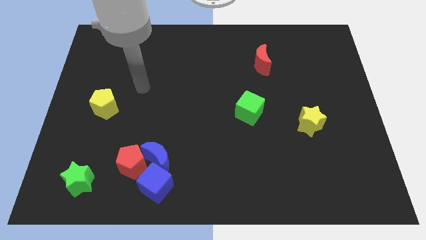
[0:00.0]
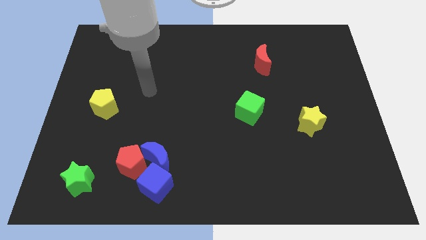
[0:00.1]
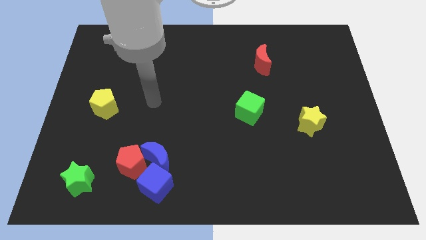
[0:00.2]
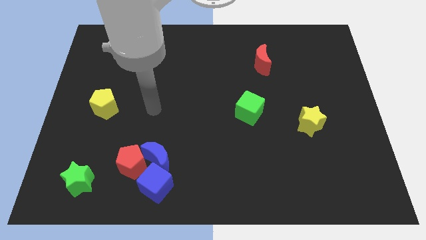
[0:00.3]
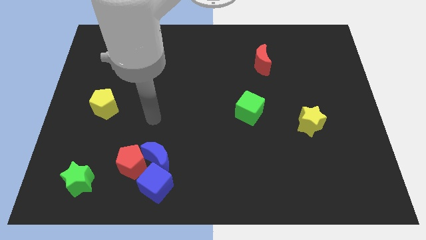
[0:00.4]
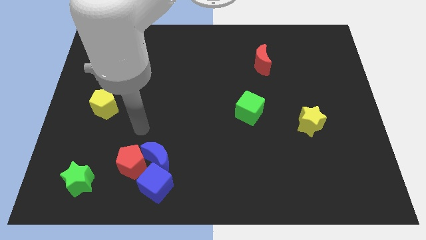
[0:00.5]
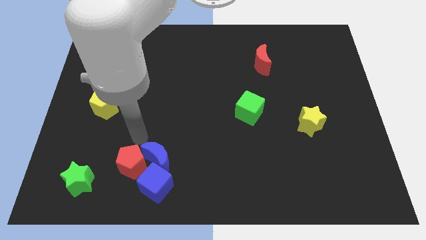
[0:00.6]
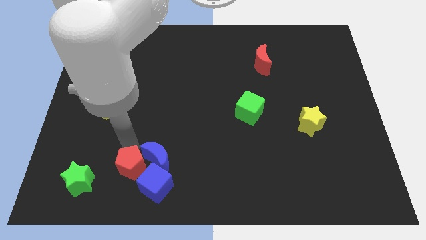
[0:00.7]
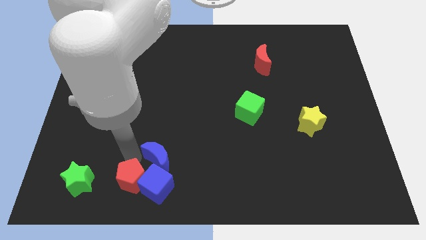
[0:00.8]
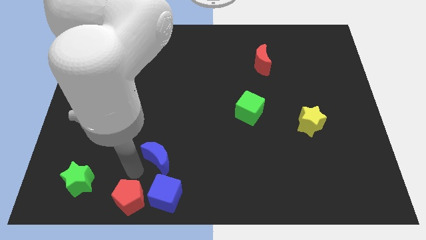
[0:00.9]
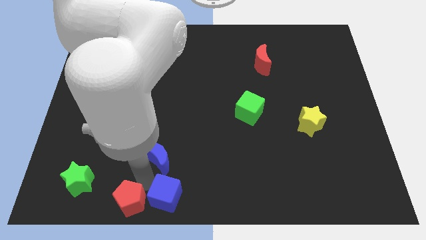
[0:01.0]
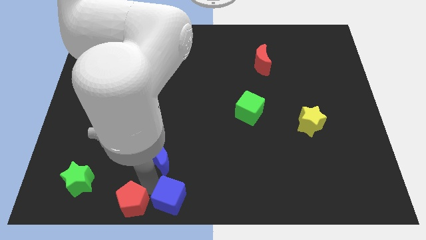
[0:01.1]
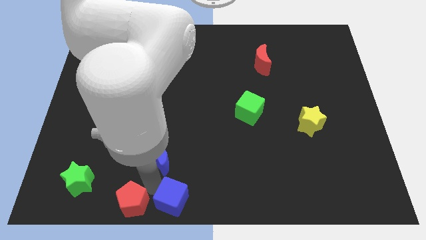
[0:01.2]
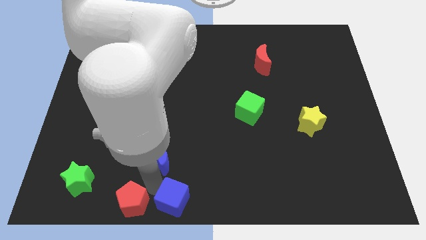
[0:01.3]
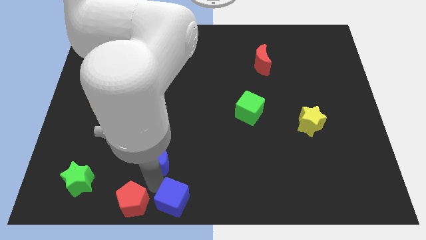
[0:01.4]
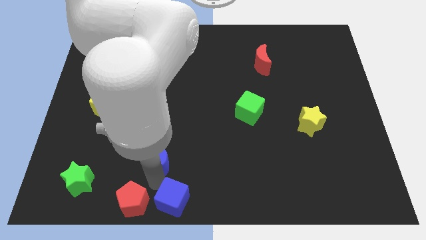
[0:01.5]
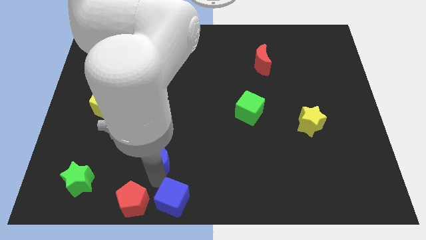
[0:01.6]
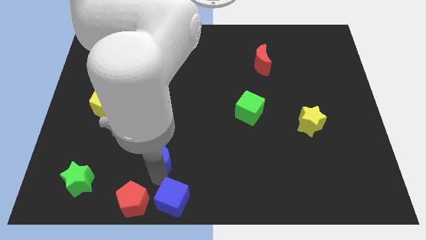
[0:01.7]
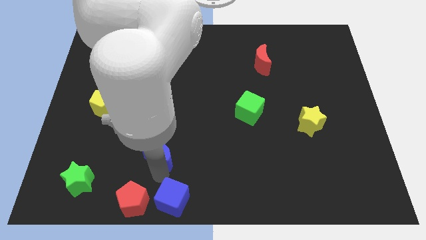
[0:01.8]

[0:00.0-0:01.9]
separate the blue moon from the red pentagon and blue cube

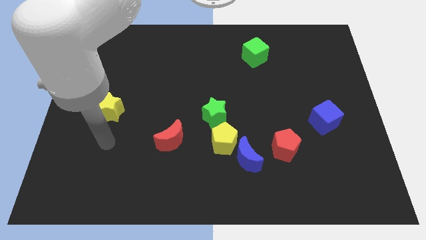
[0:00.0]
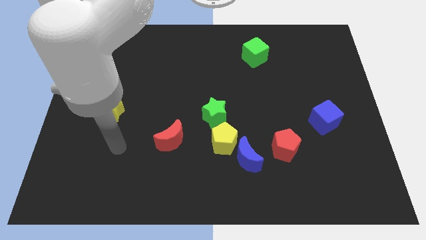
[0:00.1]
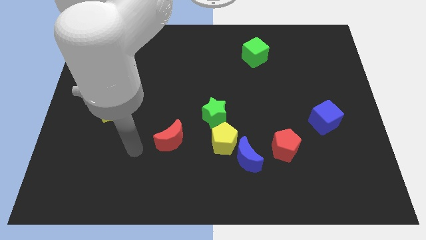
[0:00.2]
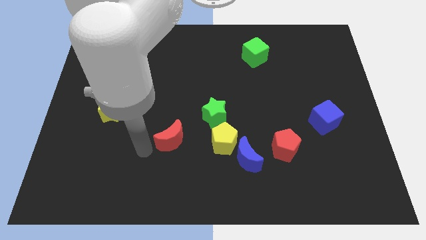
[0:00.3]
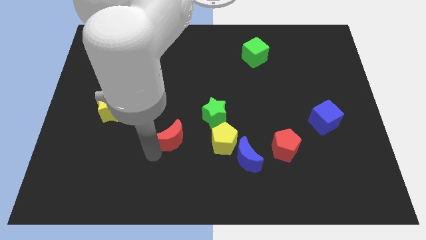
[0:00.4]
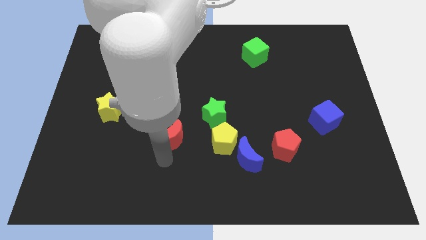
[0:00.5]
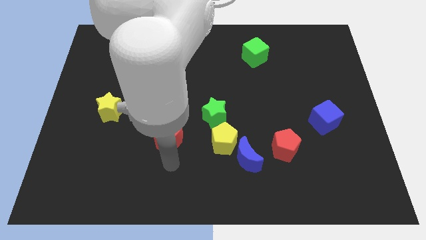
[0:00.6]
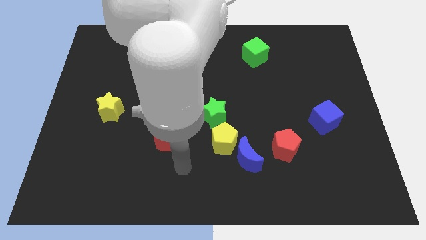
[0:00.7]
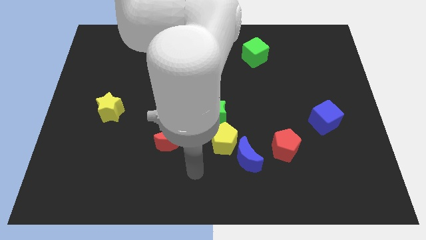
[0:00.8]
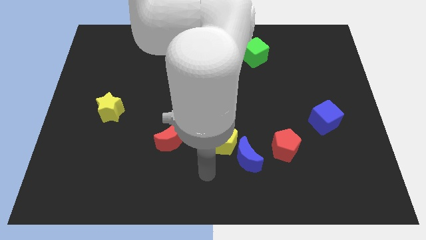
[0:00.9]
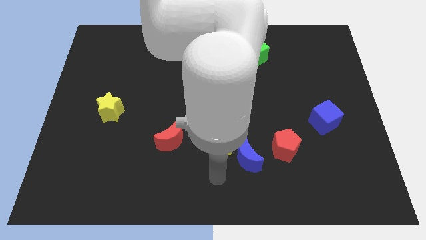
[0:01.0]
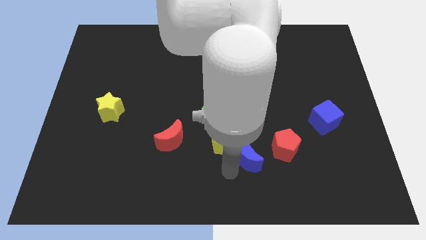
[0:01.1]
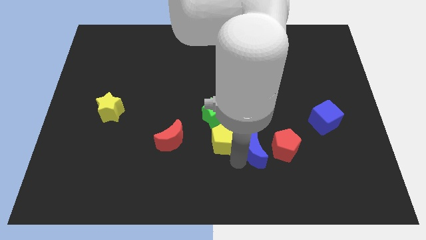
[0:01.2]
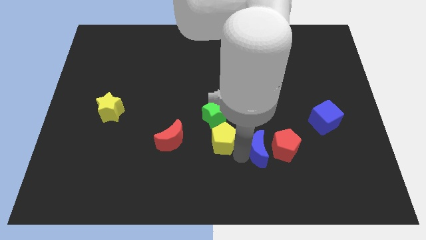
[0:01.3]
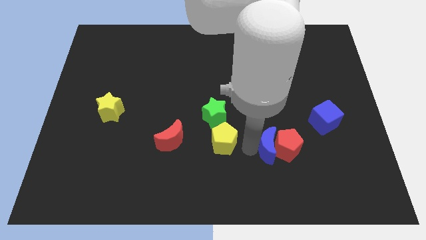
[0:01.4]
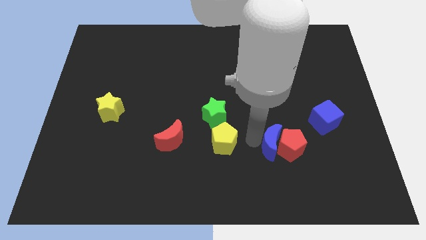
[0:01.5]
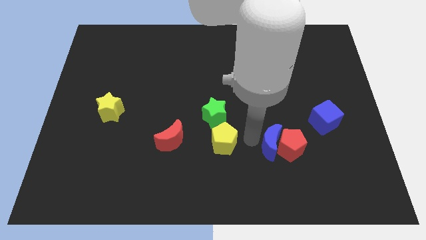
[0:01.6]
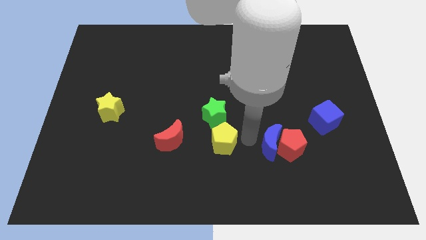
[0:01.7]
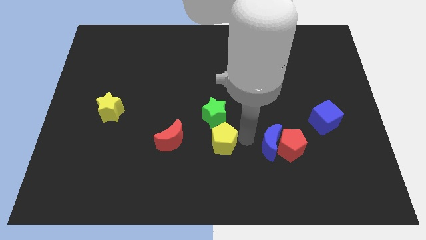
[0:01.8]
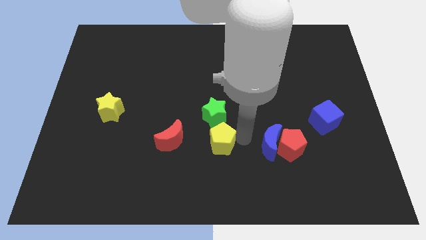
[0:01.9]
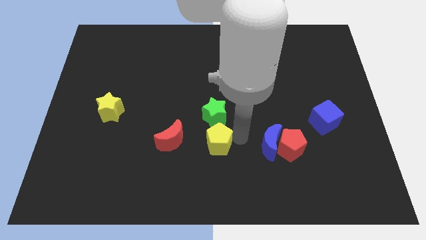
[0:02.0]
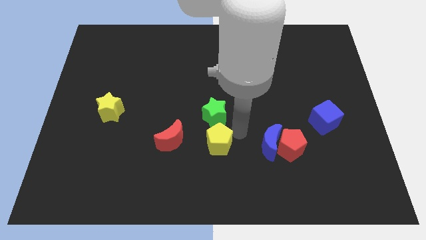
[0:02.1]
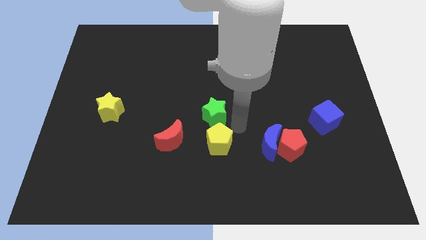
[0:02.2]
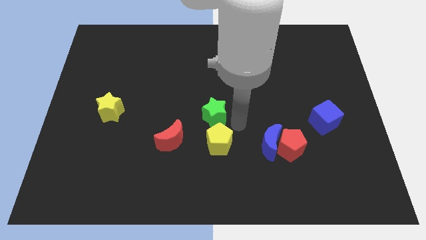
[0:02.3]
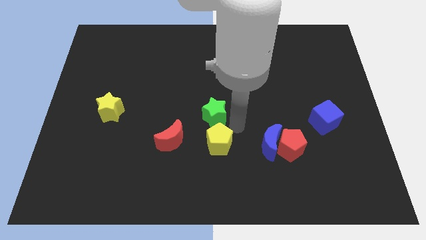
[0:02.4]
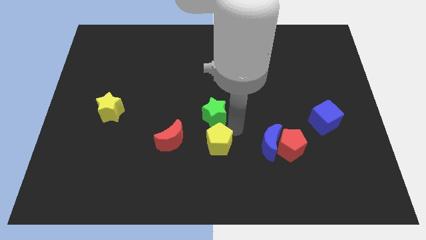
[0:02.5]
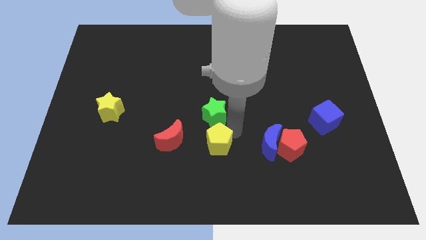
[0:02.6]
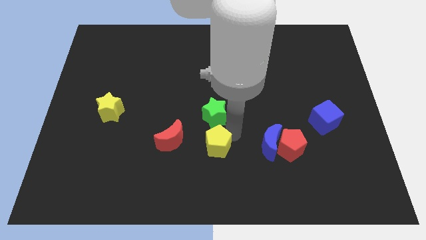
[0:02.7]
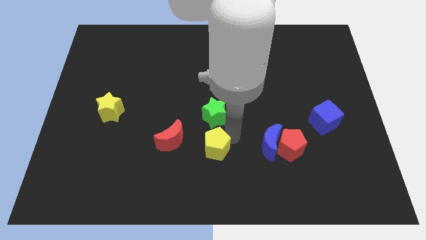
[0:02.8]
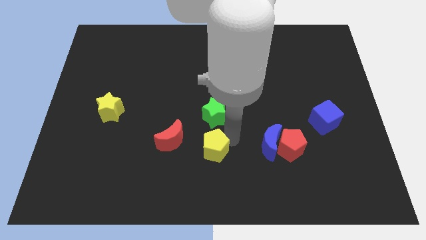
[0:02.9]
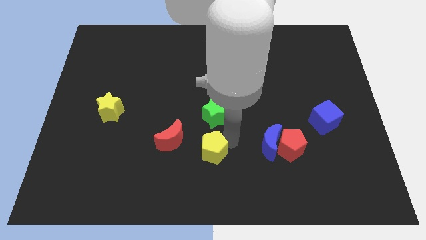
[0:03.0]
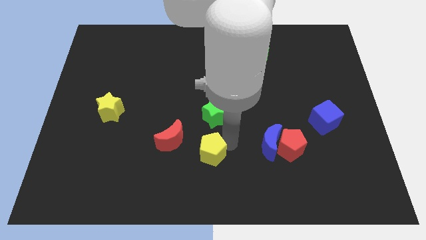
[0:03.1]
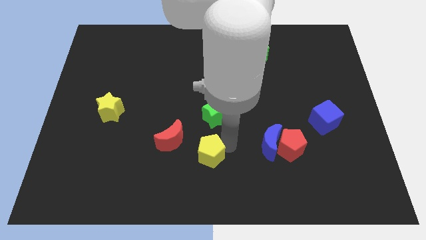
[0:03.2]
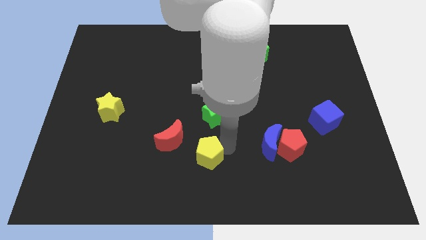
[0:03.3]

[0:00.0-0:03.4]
separate the yellow pentagon from the blue moon and green star

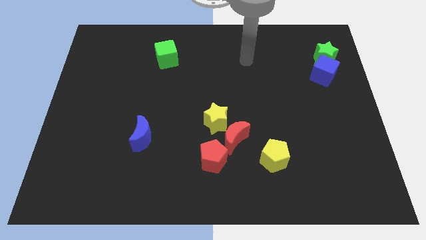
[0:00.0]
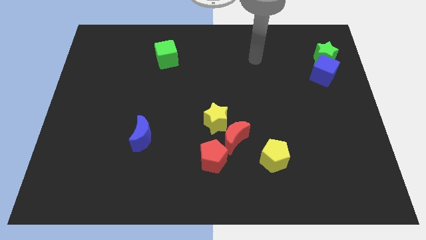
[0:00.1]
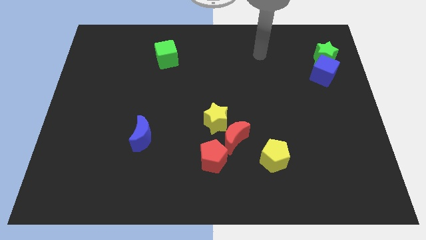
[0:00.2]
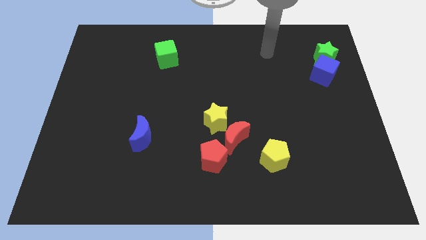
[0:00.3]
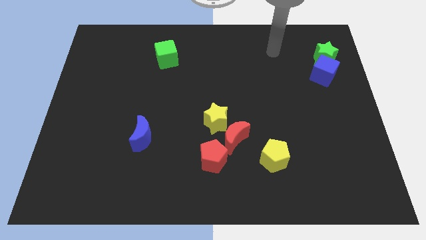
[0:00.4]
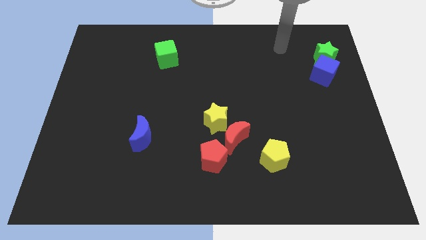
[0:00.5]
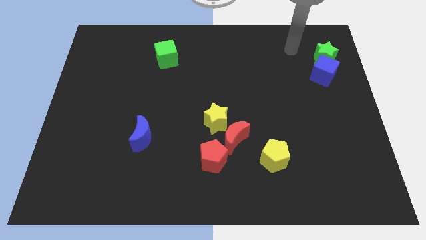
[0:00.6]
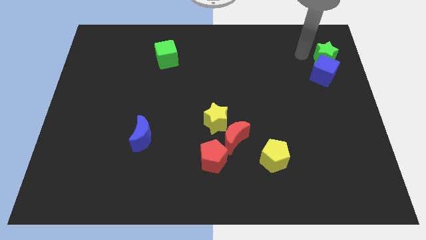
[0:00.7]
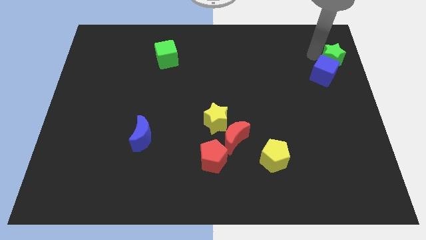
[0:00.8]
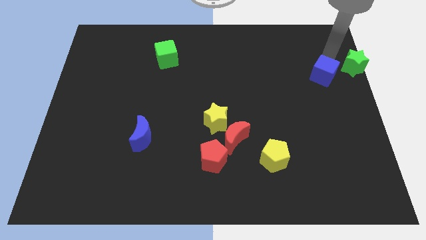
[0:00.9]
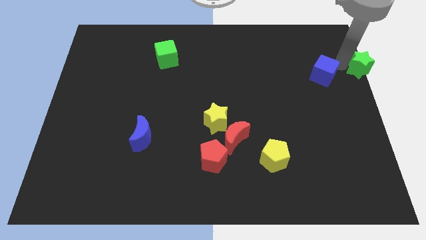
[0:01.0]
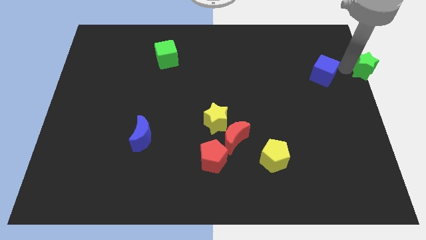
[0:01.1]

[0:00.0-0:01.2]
pull the blue cube apart from the green star

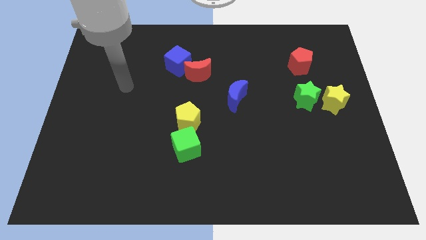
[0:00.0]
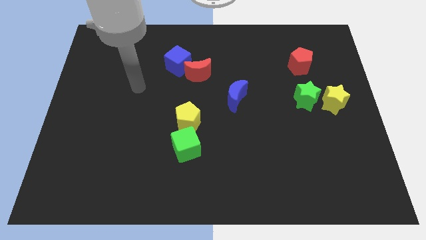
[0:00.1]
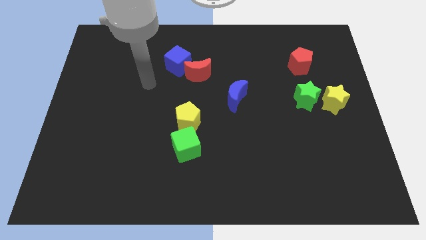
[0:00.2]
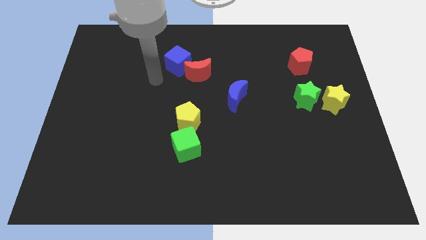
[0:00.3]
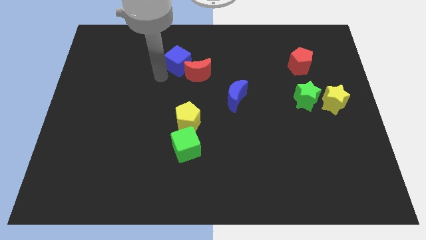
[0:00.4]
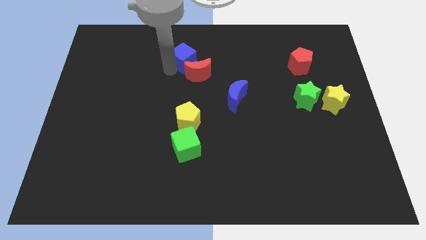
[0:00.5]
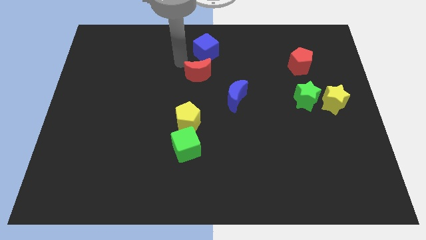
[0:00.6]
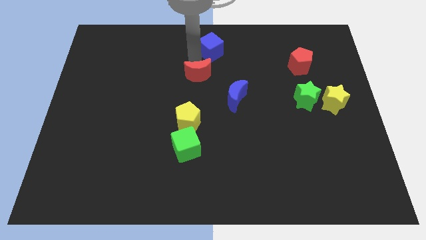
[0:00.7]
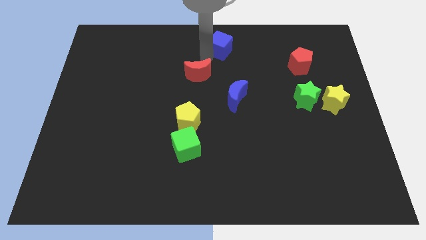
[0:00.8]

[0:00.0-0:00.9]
pull the red moon apart from the blue cube

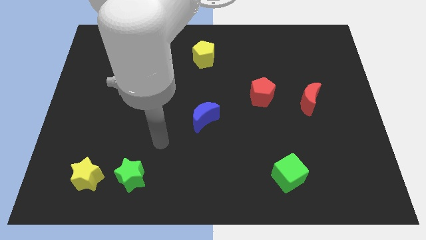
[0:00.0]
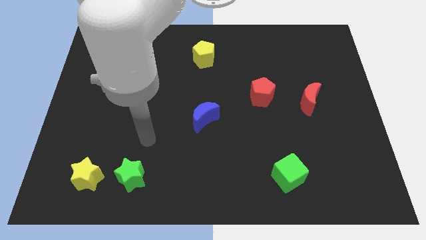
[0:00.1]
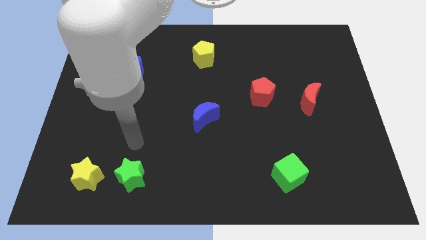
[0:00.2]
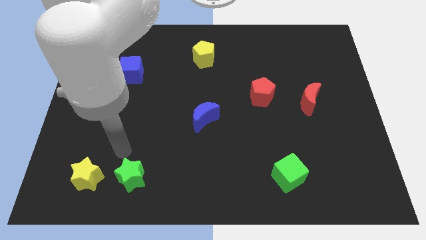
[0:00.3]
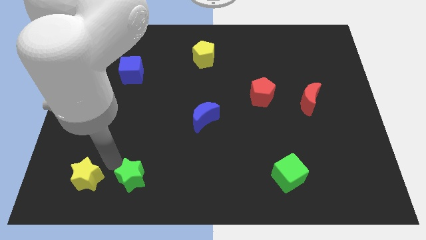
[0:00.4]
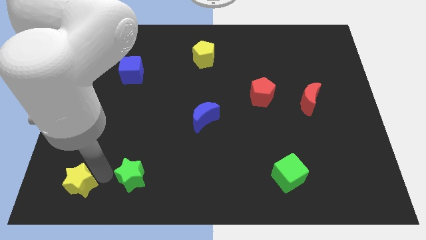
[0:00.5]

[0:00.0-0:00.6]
pull the green star apart from the yellow star

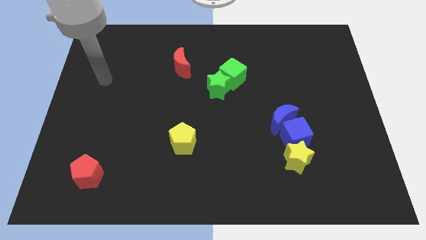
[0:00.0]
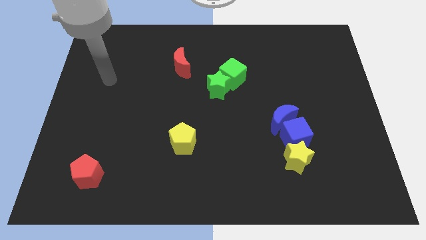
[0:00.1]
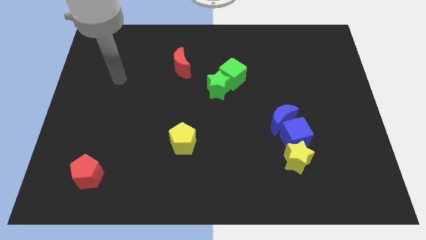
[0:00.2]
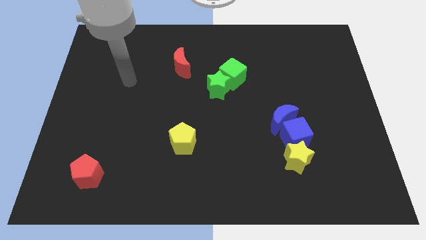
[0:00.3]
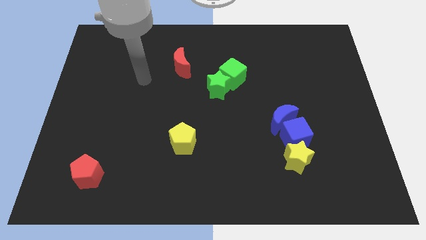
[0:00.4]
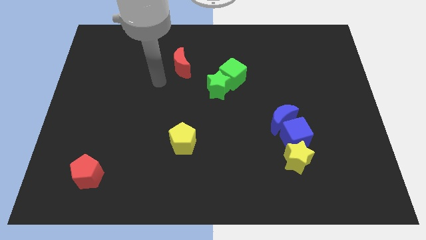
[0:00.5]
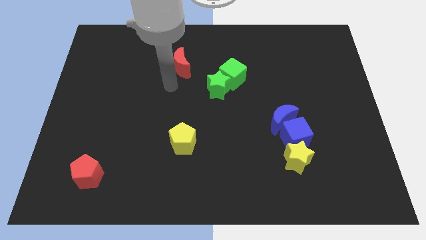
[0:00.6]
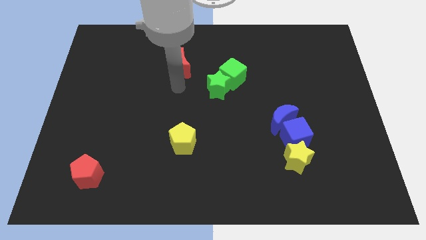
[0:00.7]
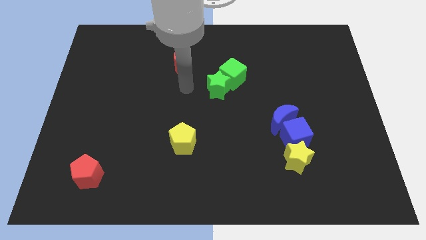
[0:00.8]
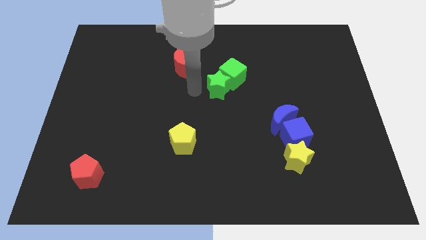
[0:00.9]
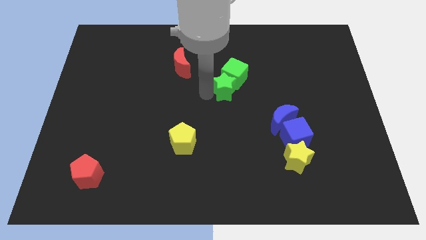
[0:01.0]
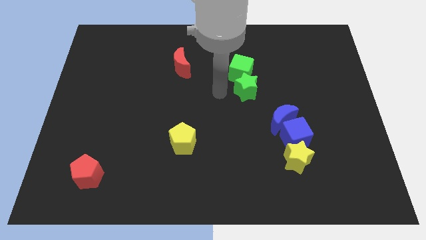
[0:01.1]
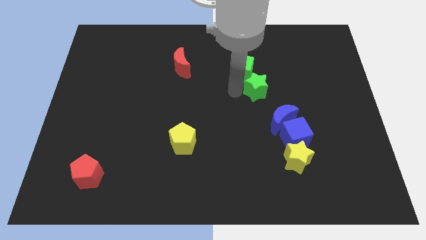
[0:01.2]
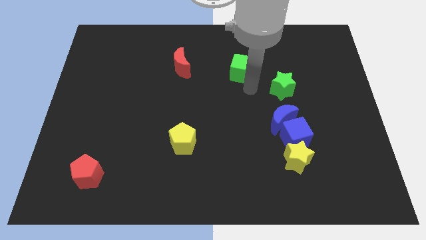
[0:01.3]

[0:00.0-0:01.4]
move the green cube away from the green star
